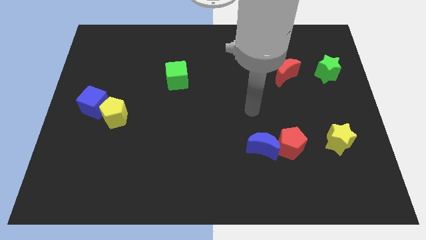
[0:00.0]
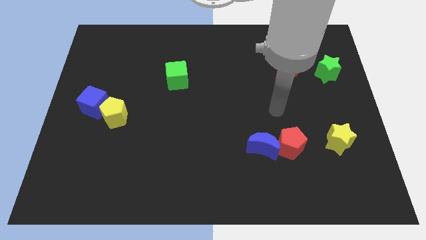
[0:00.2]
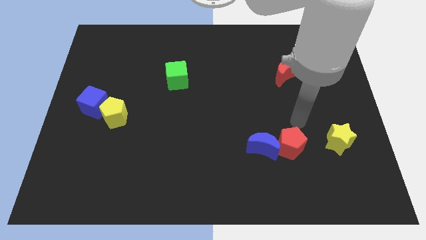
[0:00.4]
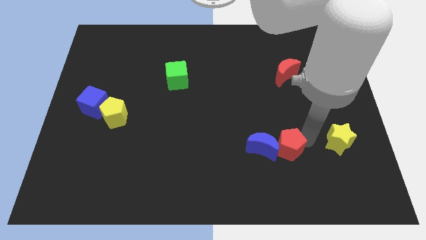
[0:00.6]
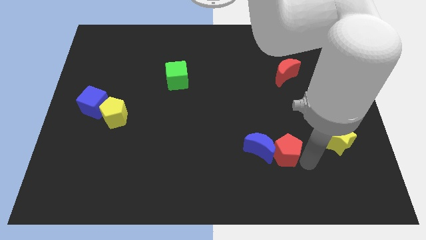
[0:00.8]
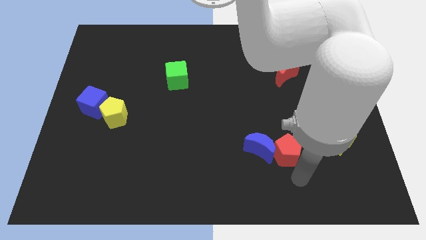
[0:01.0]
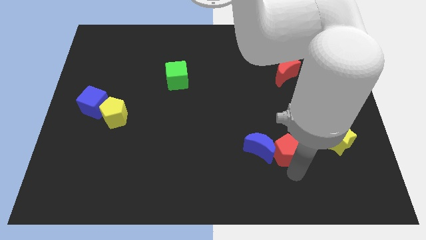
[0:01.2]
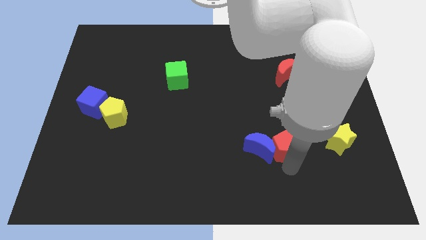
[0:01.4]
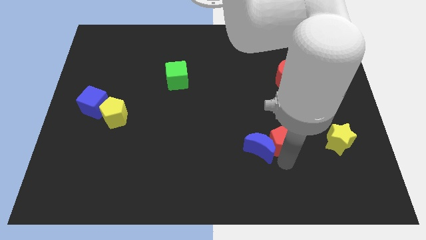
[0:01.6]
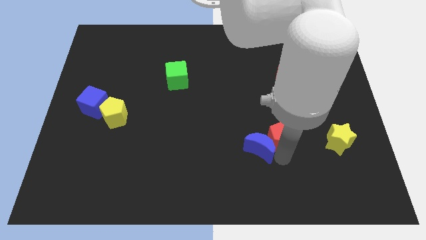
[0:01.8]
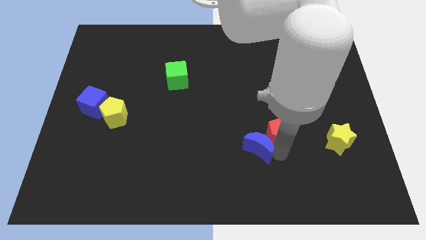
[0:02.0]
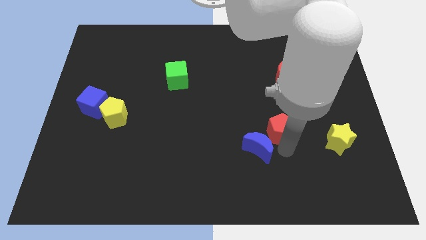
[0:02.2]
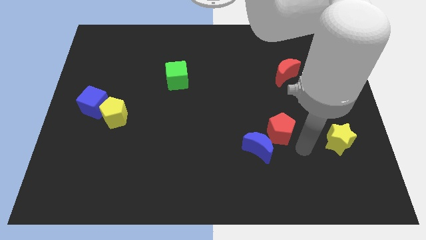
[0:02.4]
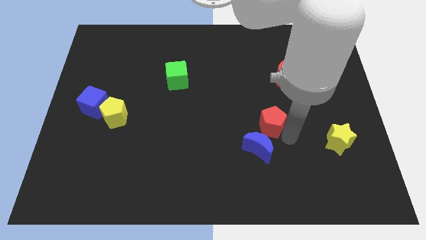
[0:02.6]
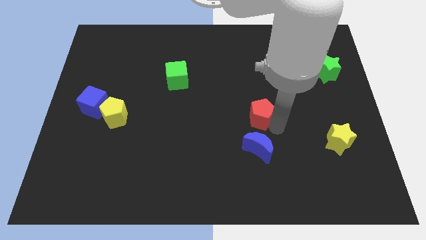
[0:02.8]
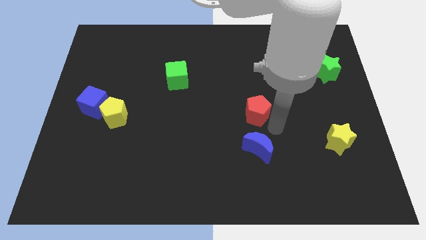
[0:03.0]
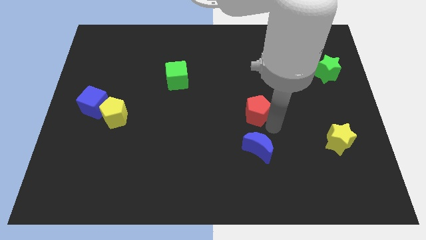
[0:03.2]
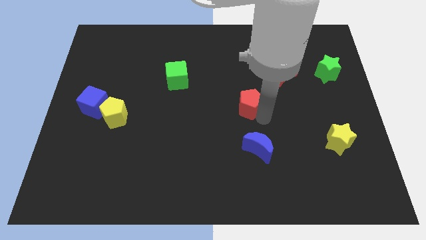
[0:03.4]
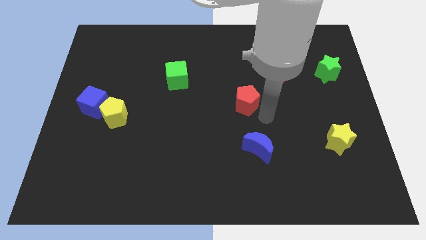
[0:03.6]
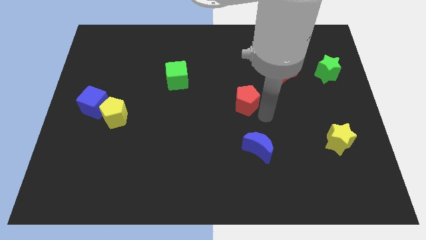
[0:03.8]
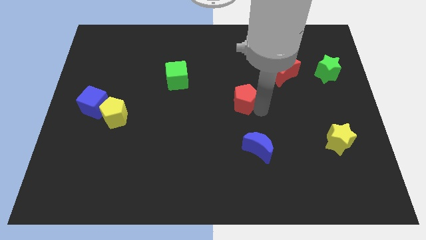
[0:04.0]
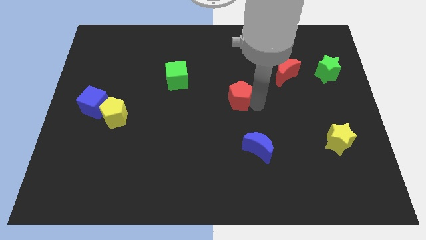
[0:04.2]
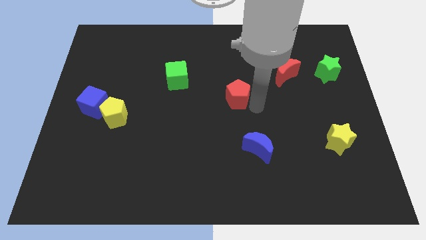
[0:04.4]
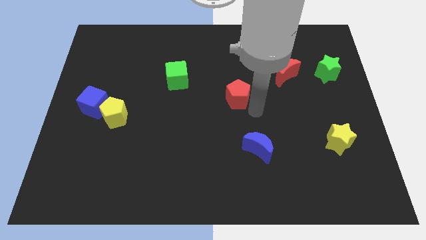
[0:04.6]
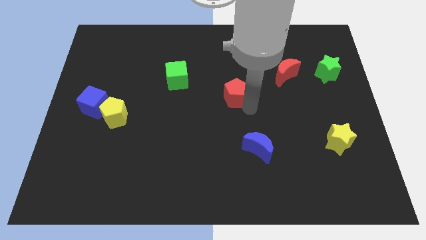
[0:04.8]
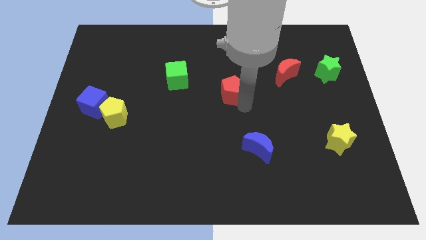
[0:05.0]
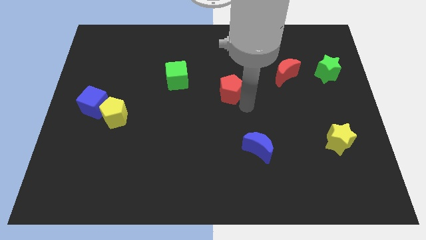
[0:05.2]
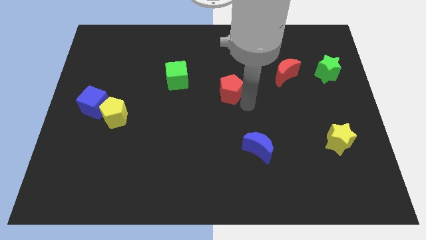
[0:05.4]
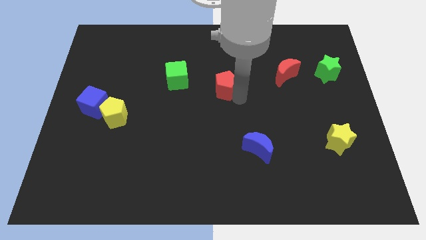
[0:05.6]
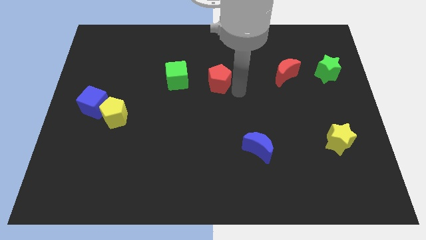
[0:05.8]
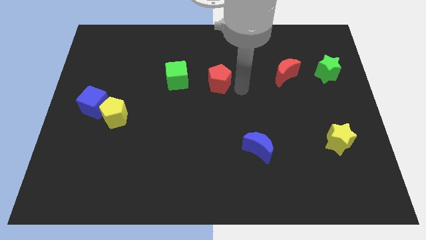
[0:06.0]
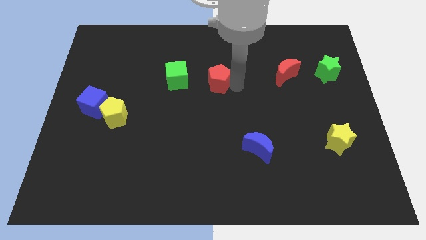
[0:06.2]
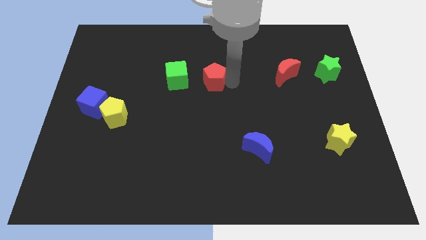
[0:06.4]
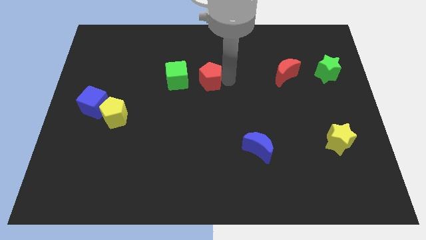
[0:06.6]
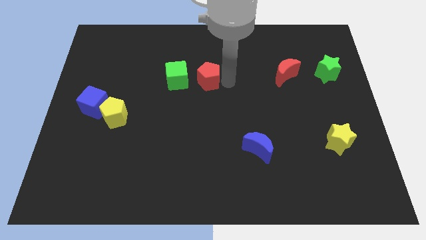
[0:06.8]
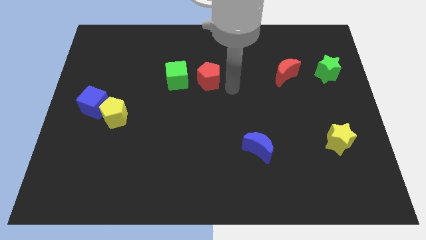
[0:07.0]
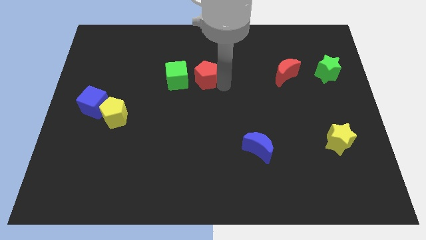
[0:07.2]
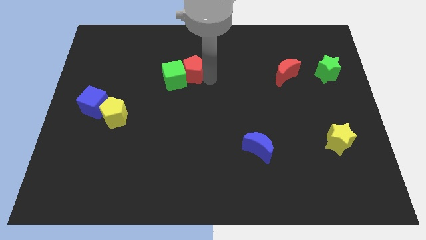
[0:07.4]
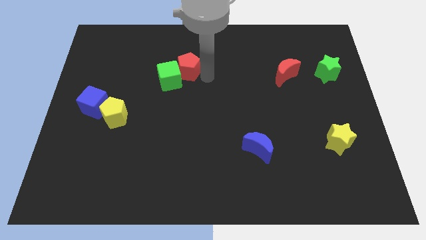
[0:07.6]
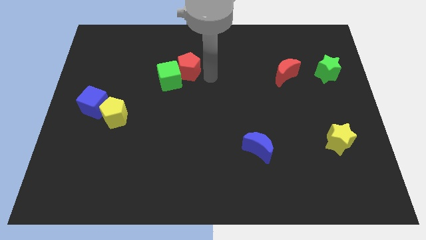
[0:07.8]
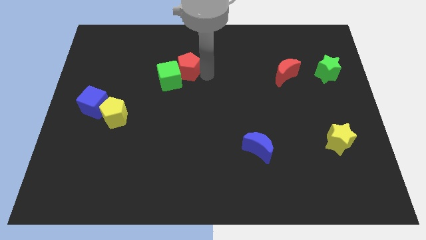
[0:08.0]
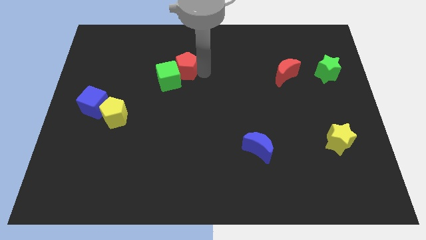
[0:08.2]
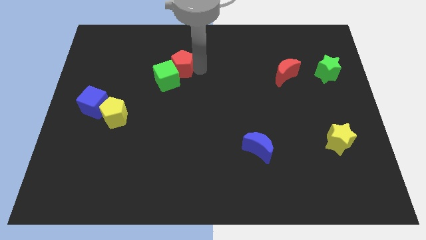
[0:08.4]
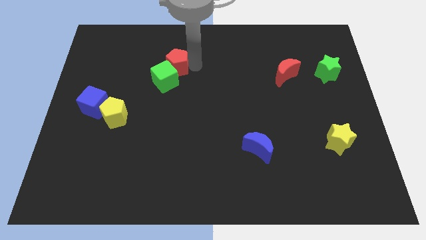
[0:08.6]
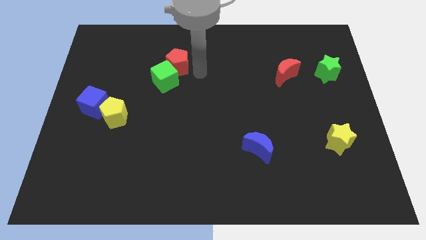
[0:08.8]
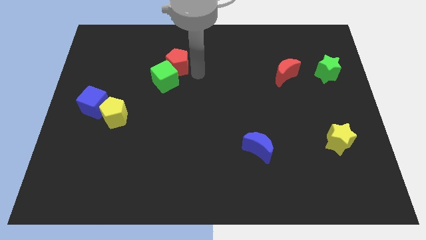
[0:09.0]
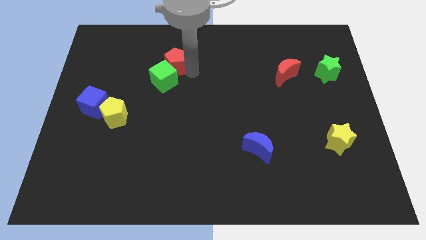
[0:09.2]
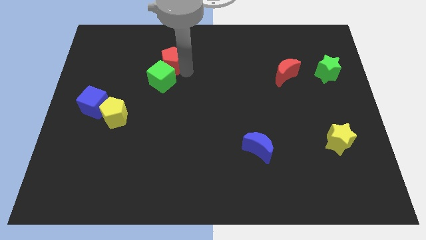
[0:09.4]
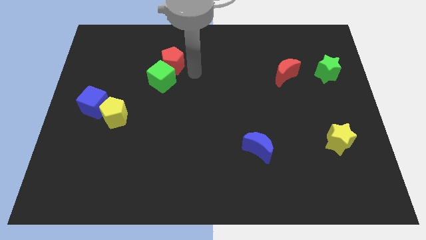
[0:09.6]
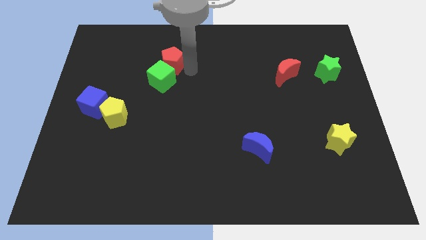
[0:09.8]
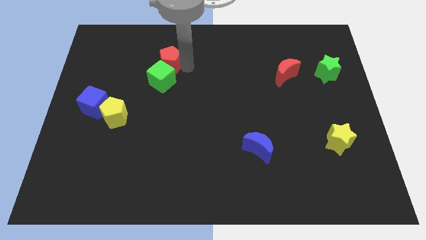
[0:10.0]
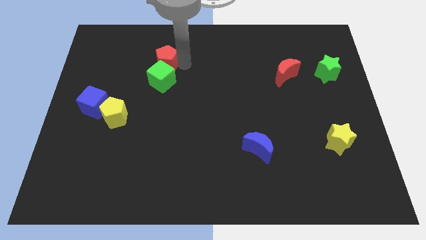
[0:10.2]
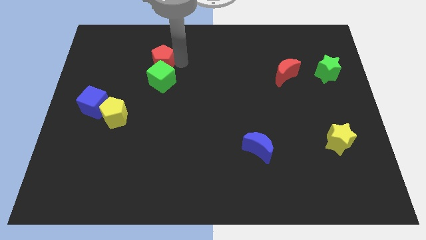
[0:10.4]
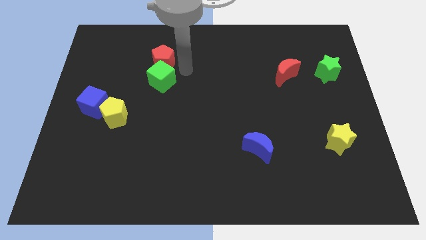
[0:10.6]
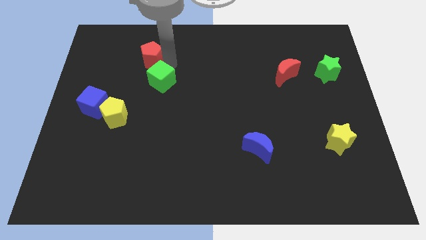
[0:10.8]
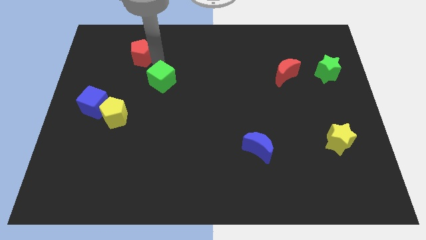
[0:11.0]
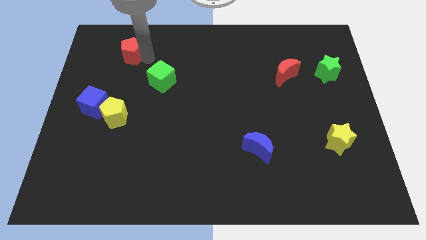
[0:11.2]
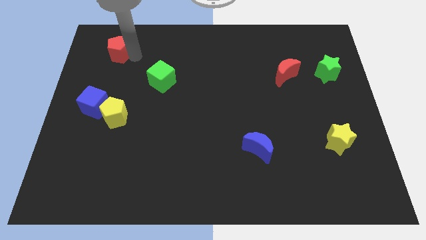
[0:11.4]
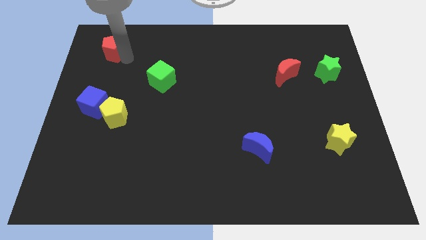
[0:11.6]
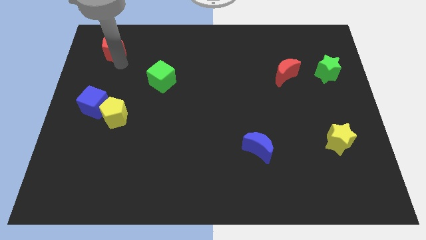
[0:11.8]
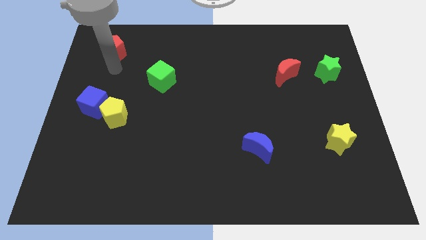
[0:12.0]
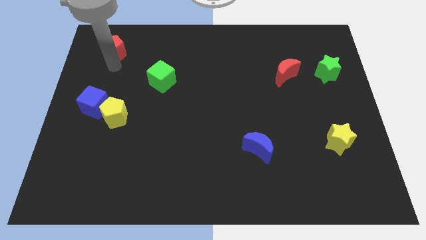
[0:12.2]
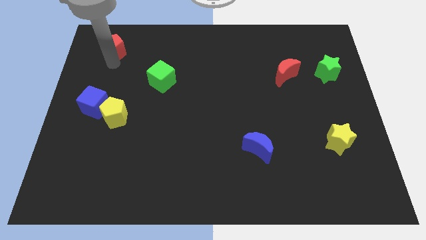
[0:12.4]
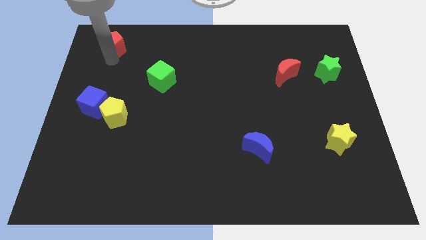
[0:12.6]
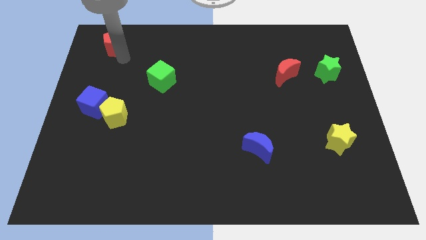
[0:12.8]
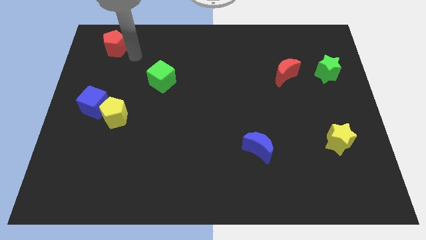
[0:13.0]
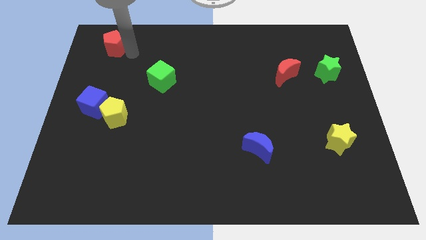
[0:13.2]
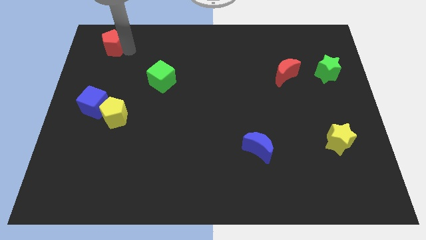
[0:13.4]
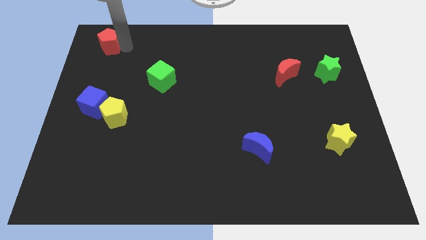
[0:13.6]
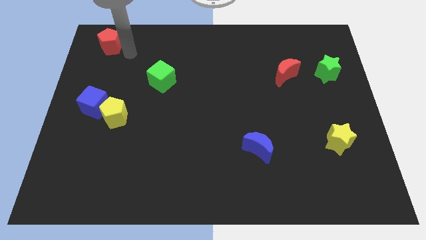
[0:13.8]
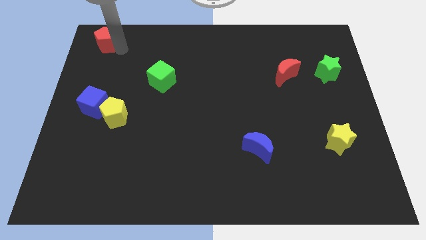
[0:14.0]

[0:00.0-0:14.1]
put the red pentagon to the top left corner
